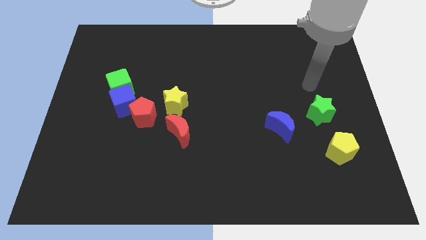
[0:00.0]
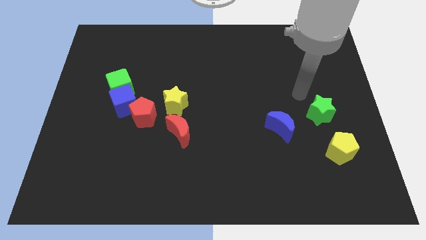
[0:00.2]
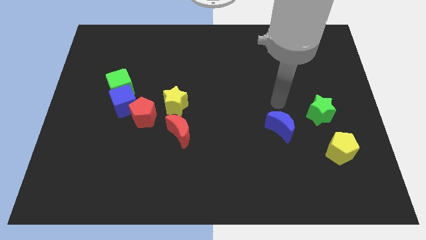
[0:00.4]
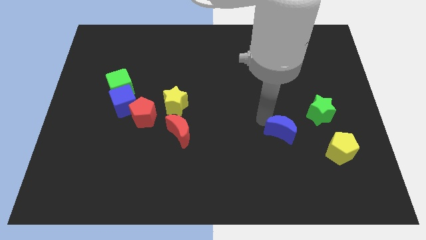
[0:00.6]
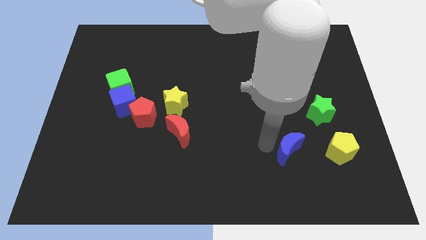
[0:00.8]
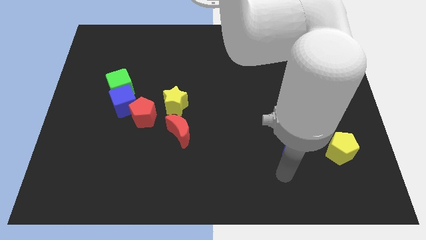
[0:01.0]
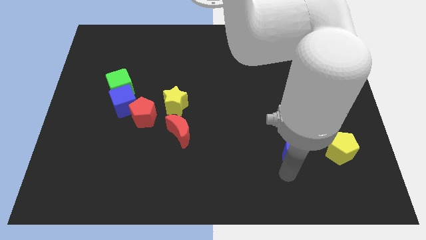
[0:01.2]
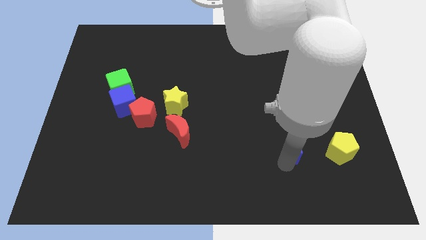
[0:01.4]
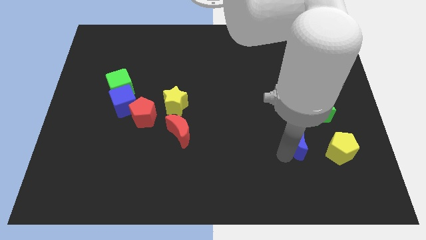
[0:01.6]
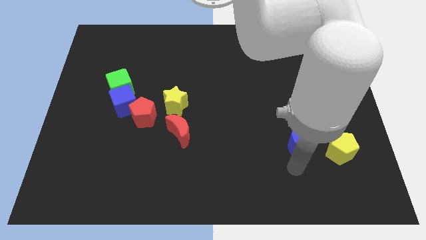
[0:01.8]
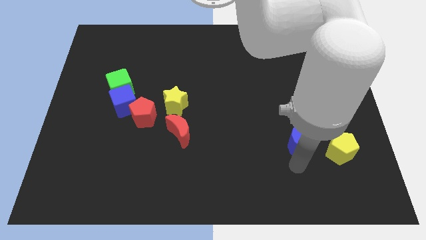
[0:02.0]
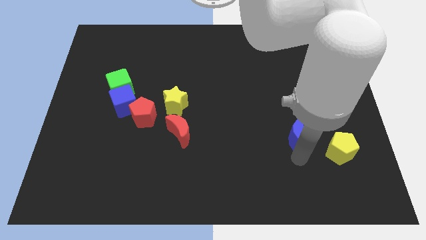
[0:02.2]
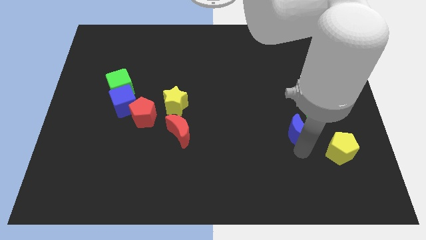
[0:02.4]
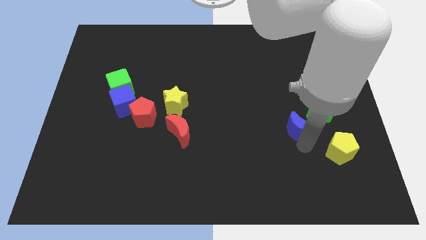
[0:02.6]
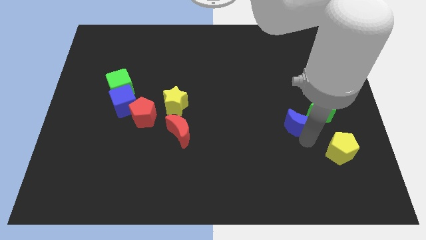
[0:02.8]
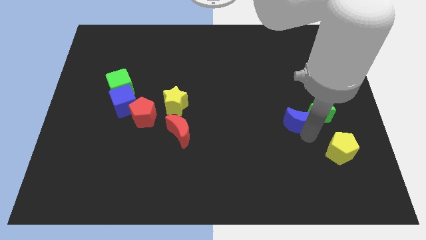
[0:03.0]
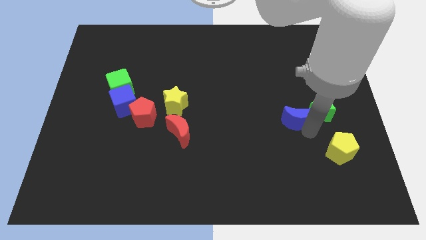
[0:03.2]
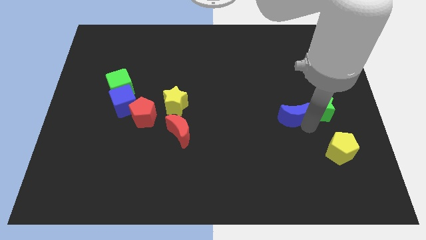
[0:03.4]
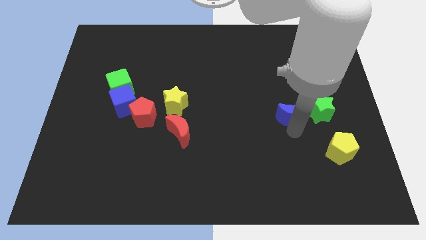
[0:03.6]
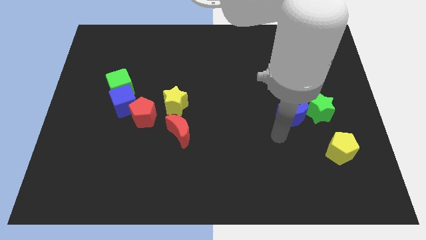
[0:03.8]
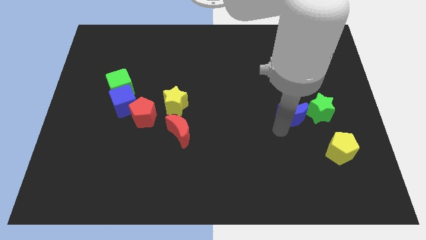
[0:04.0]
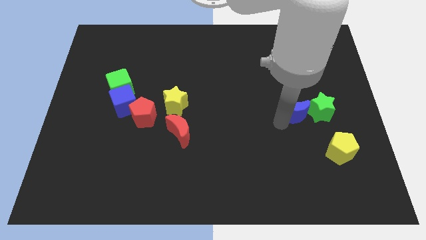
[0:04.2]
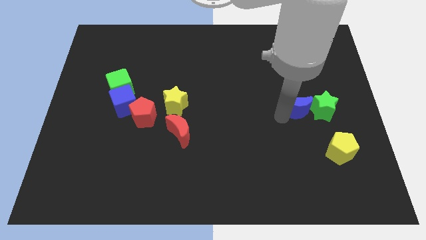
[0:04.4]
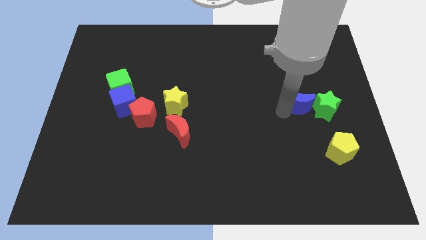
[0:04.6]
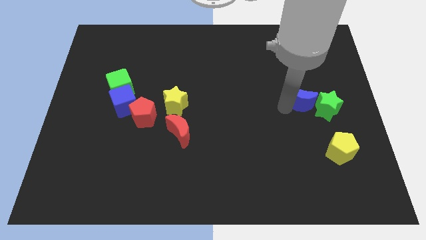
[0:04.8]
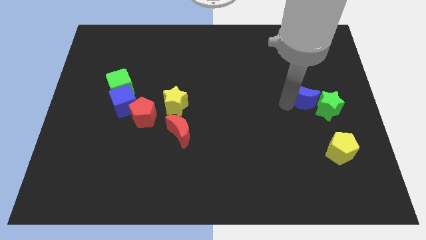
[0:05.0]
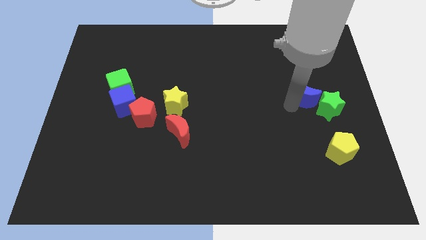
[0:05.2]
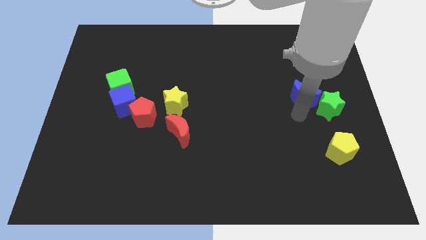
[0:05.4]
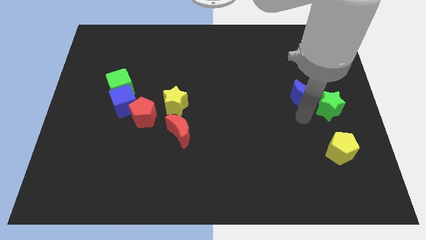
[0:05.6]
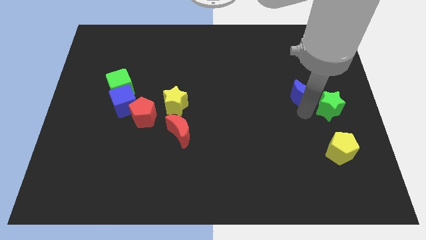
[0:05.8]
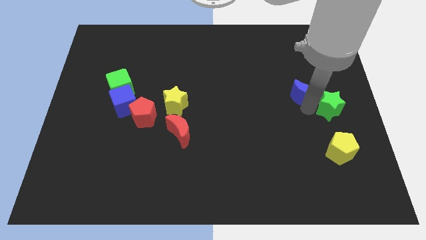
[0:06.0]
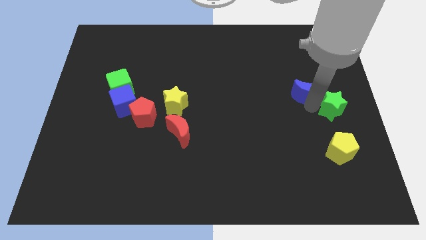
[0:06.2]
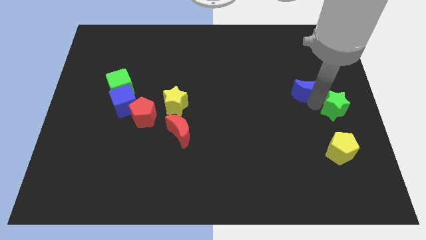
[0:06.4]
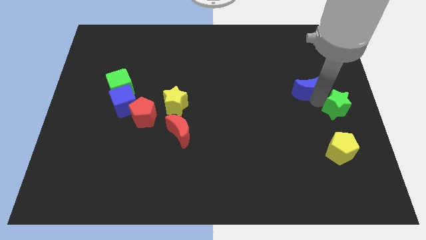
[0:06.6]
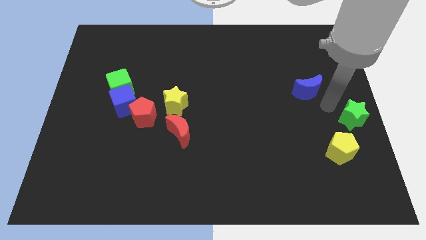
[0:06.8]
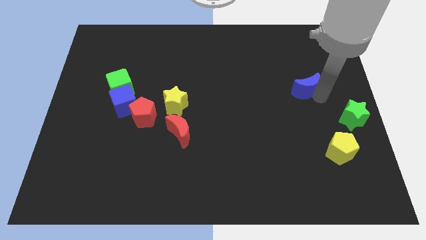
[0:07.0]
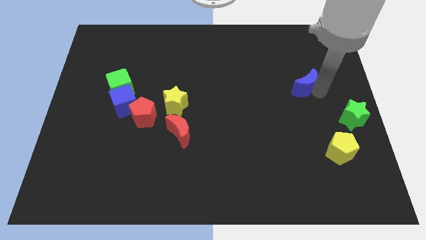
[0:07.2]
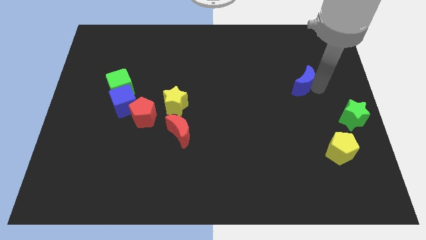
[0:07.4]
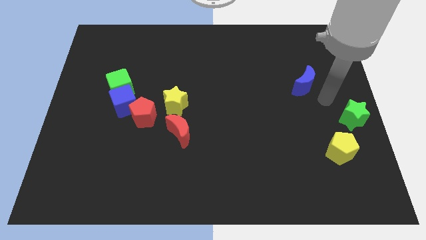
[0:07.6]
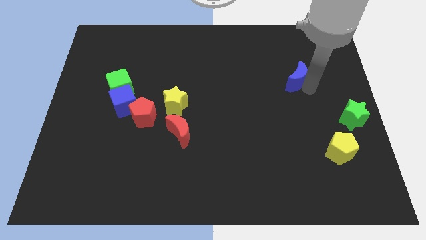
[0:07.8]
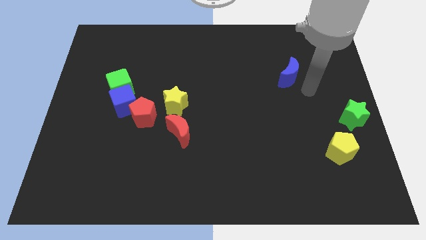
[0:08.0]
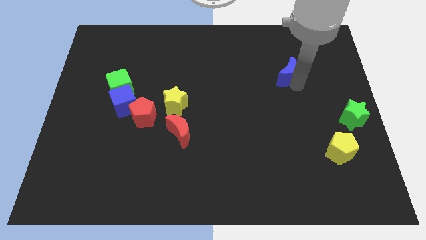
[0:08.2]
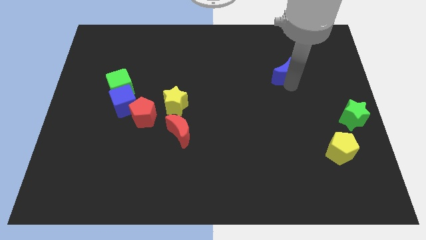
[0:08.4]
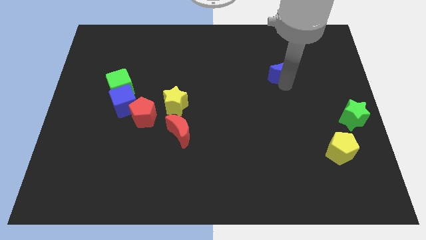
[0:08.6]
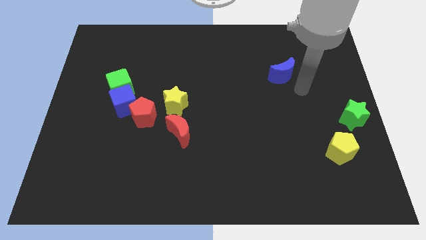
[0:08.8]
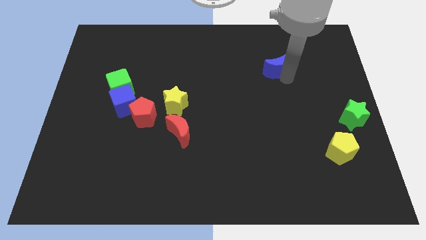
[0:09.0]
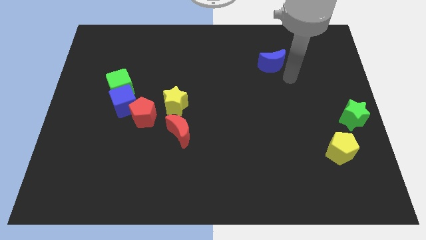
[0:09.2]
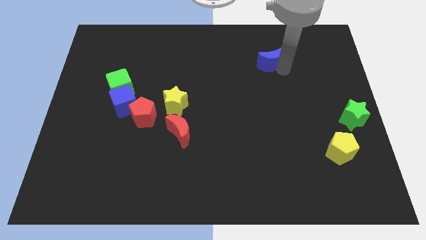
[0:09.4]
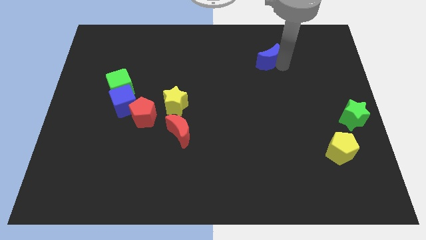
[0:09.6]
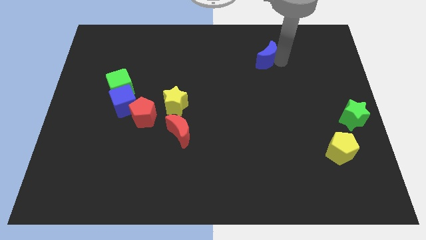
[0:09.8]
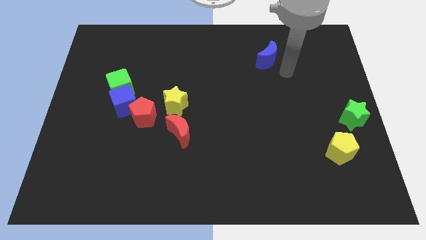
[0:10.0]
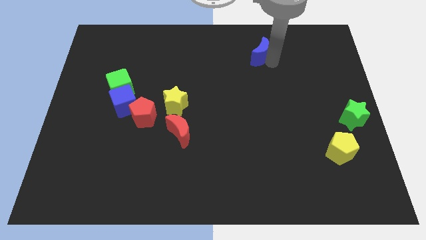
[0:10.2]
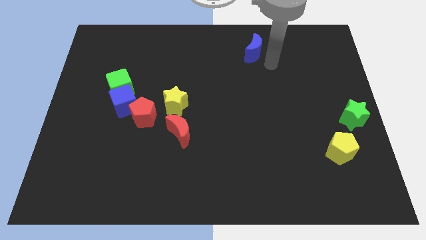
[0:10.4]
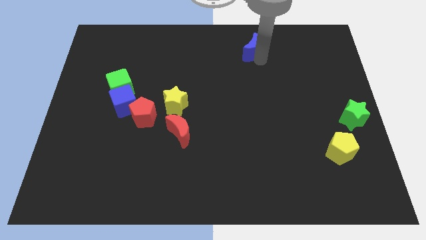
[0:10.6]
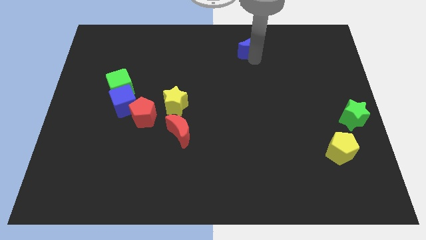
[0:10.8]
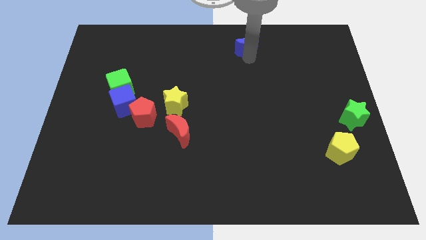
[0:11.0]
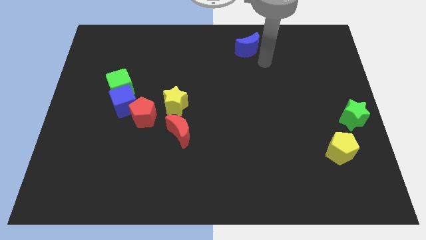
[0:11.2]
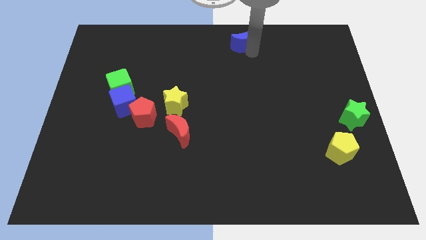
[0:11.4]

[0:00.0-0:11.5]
push the blue moon to the top
